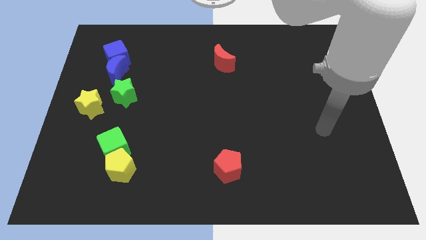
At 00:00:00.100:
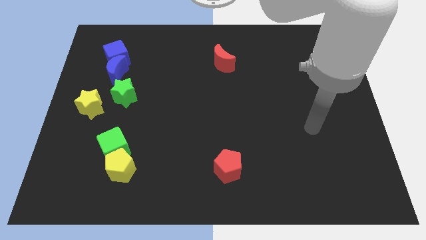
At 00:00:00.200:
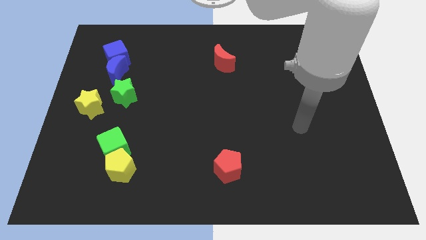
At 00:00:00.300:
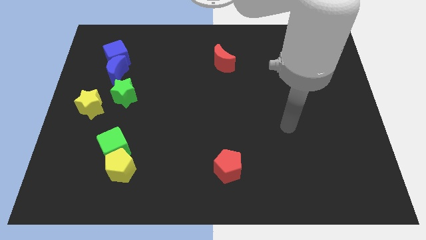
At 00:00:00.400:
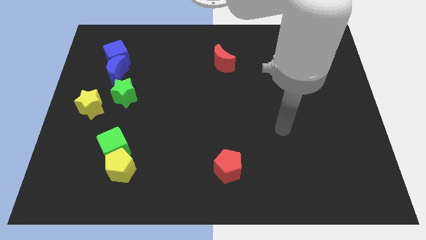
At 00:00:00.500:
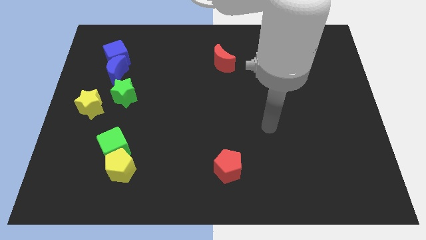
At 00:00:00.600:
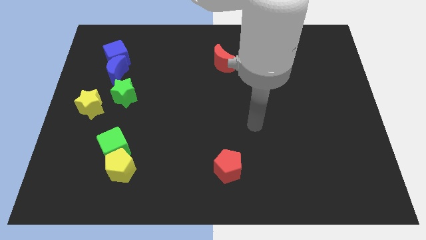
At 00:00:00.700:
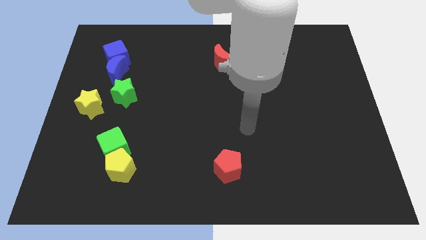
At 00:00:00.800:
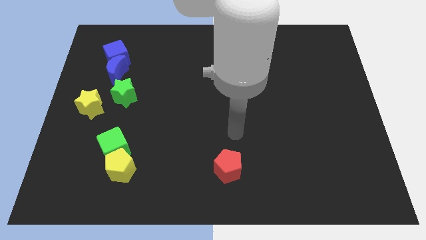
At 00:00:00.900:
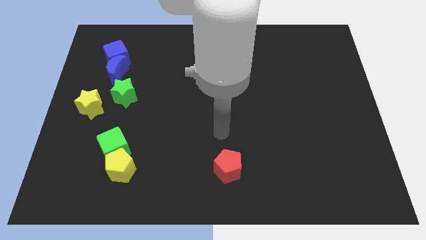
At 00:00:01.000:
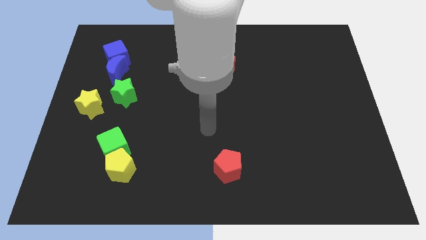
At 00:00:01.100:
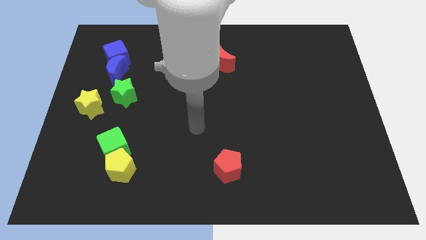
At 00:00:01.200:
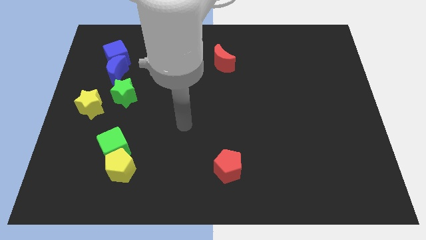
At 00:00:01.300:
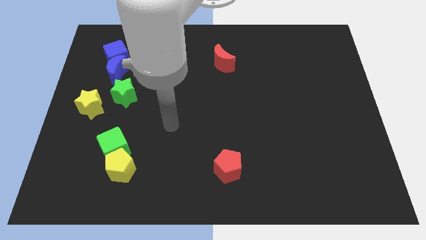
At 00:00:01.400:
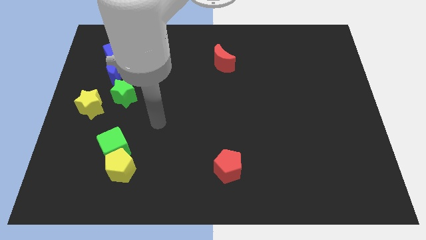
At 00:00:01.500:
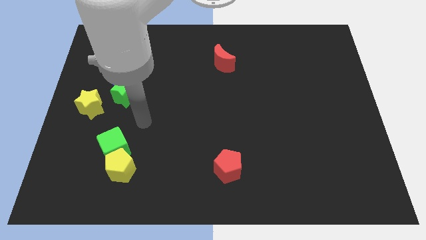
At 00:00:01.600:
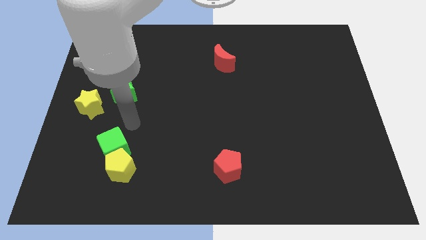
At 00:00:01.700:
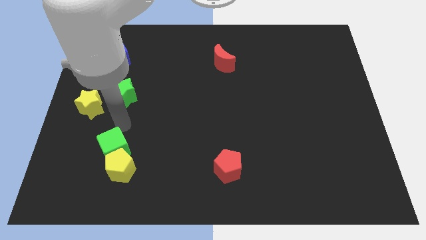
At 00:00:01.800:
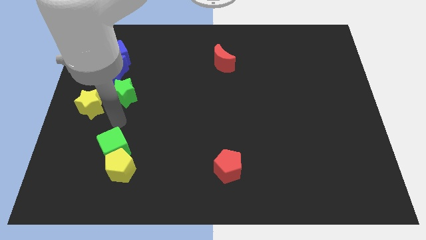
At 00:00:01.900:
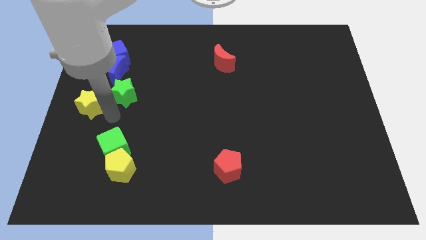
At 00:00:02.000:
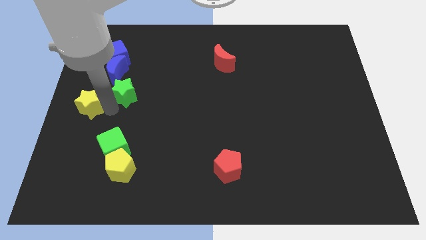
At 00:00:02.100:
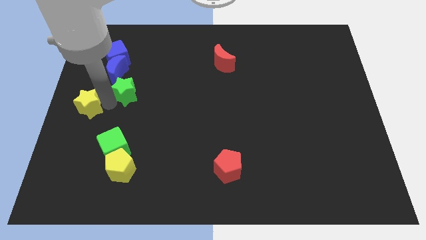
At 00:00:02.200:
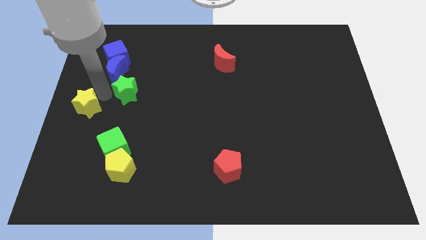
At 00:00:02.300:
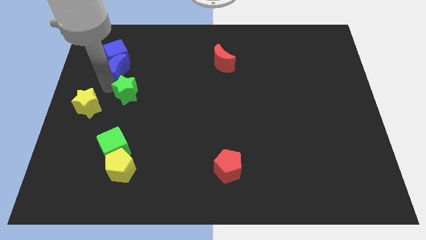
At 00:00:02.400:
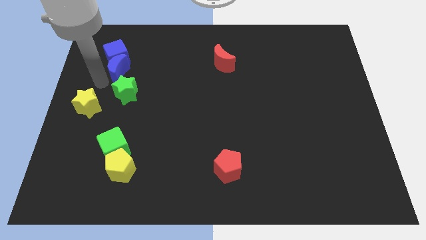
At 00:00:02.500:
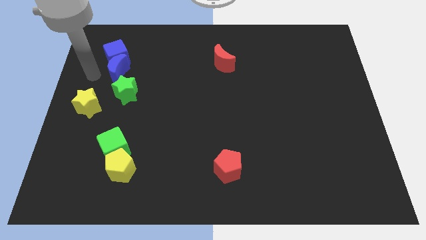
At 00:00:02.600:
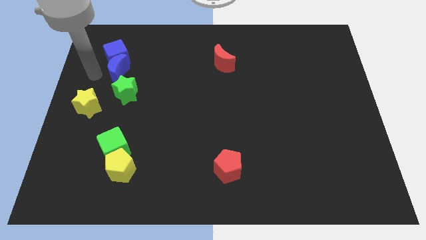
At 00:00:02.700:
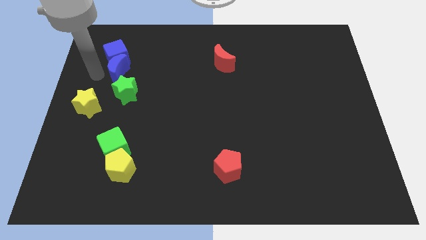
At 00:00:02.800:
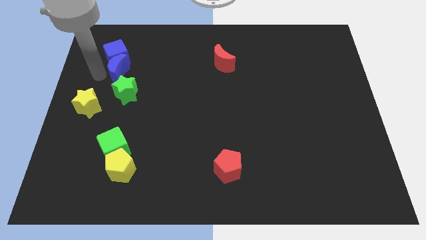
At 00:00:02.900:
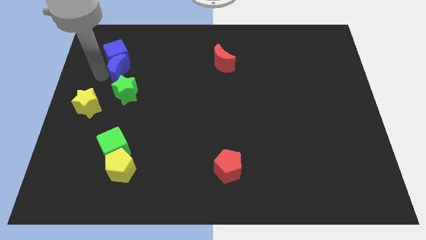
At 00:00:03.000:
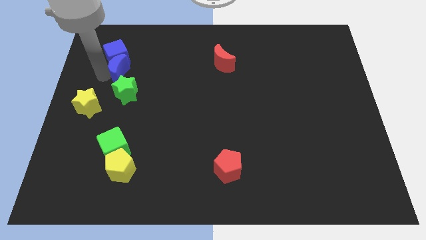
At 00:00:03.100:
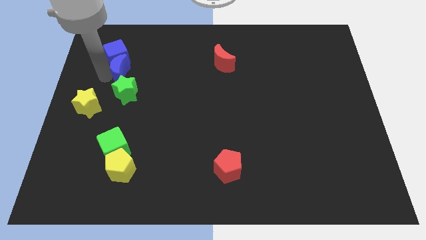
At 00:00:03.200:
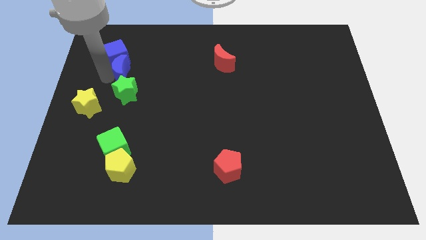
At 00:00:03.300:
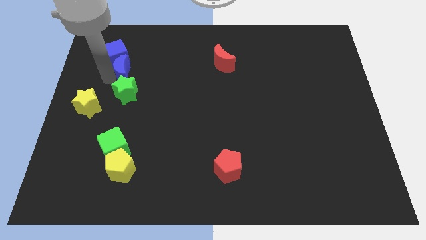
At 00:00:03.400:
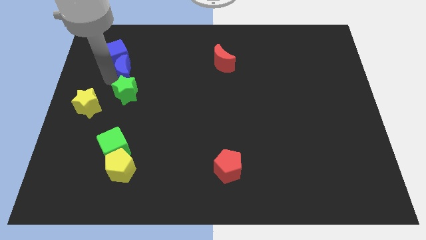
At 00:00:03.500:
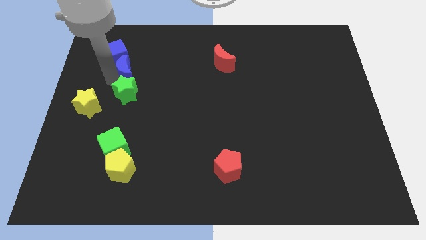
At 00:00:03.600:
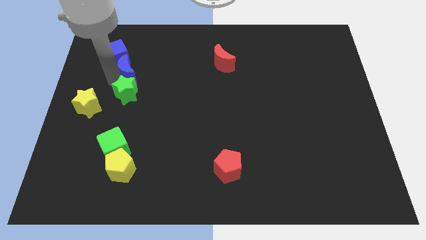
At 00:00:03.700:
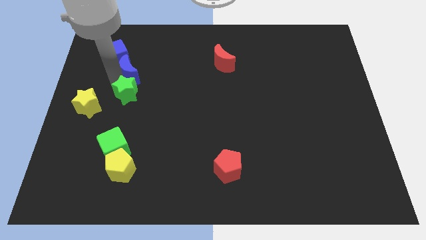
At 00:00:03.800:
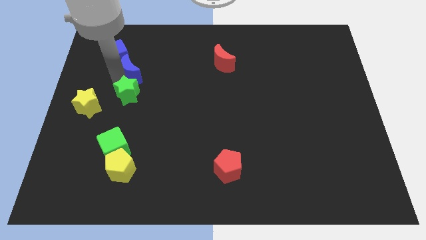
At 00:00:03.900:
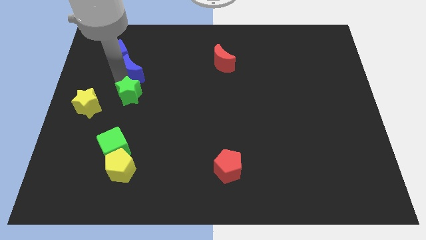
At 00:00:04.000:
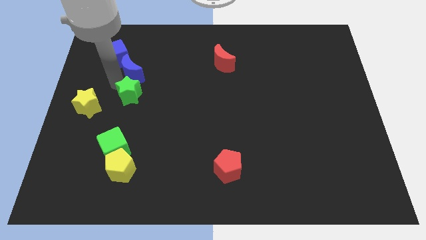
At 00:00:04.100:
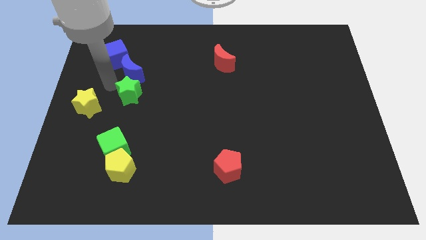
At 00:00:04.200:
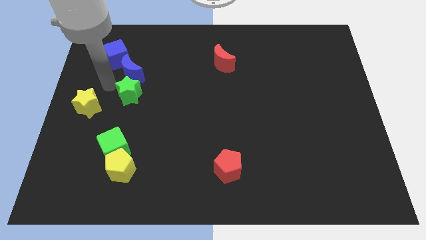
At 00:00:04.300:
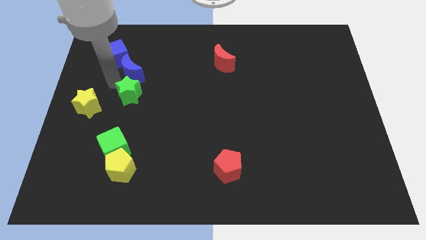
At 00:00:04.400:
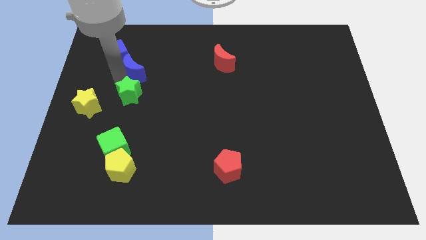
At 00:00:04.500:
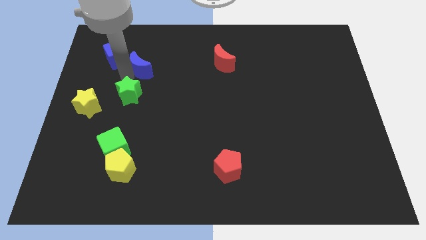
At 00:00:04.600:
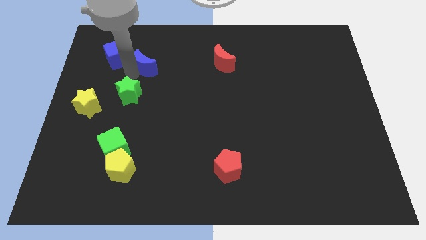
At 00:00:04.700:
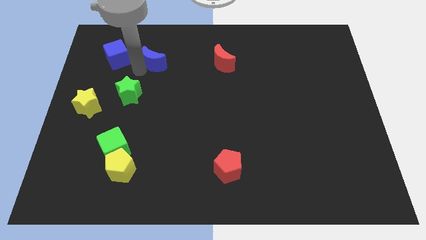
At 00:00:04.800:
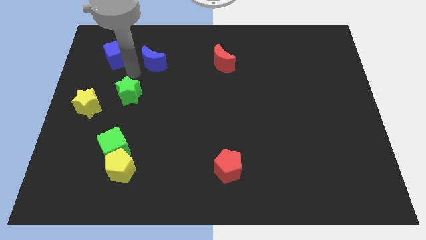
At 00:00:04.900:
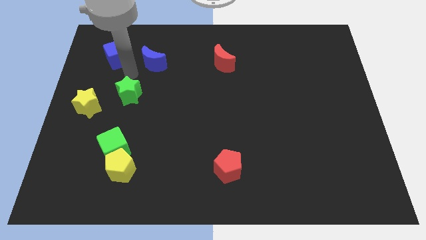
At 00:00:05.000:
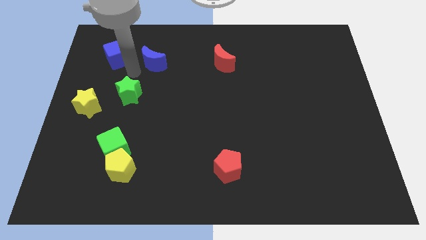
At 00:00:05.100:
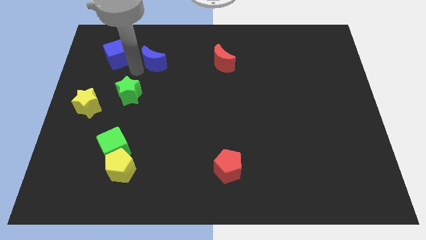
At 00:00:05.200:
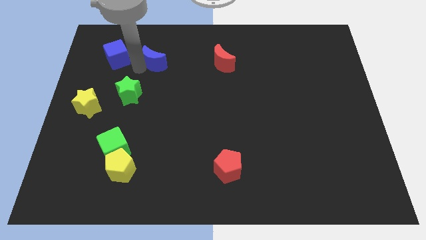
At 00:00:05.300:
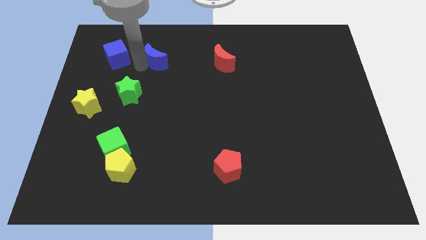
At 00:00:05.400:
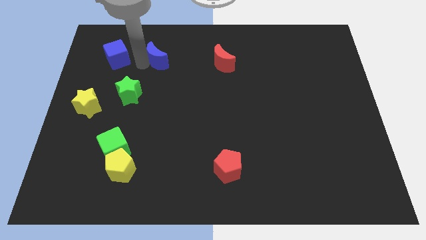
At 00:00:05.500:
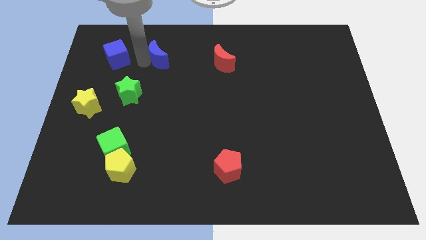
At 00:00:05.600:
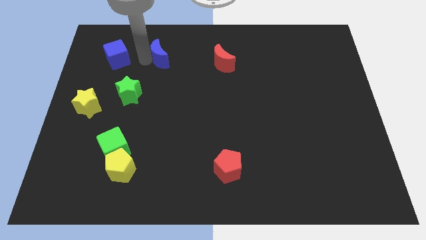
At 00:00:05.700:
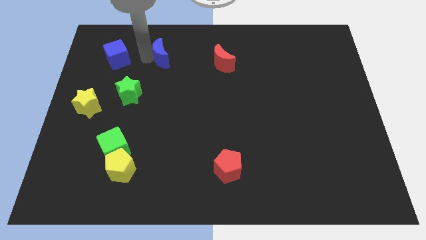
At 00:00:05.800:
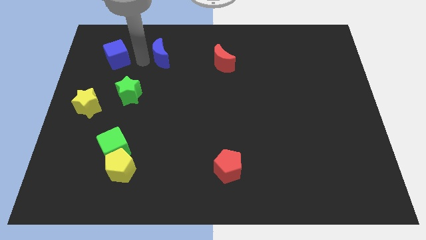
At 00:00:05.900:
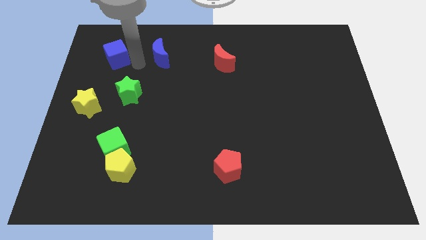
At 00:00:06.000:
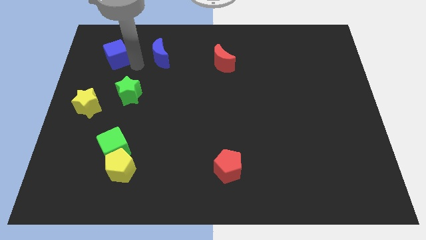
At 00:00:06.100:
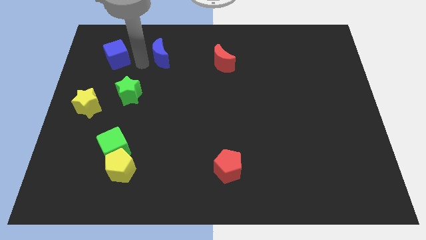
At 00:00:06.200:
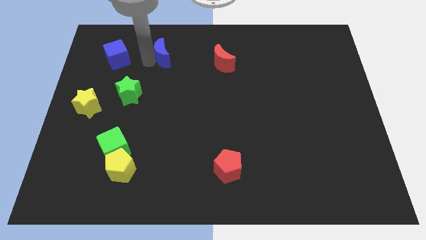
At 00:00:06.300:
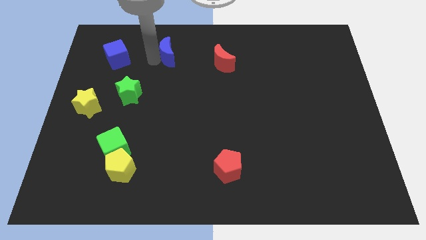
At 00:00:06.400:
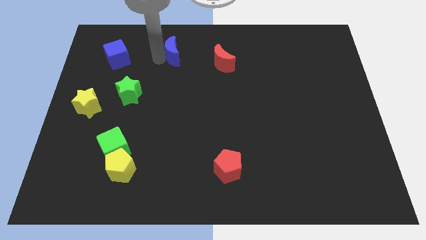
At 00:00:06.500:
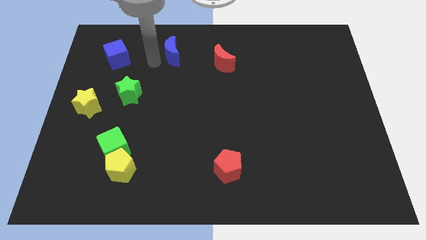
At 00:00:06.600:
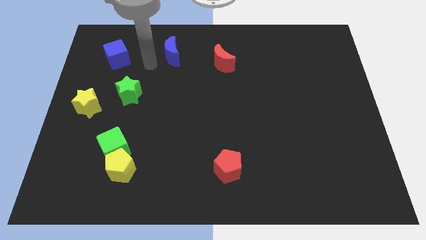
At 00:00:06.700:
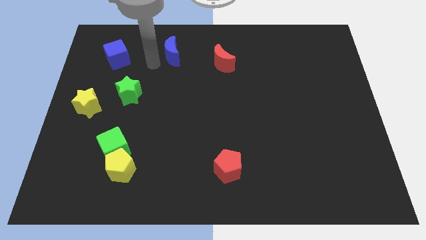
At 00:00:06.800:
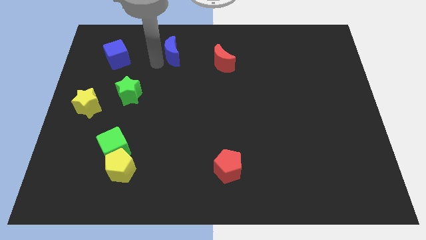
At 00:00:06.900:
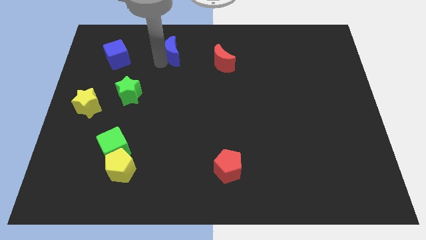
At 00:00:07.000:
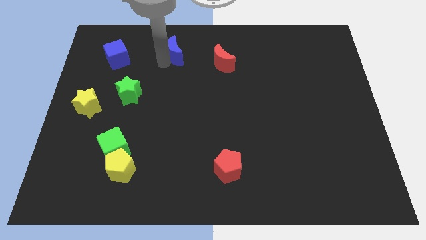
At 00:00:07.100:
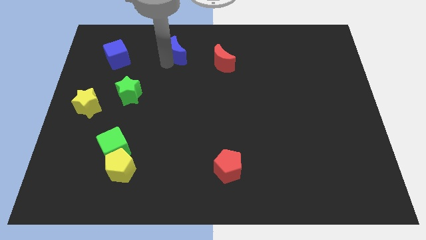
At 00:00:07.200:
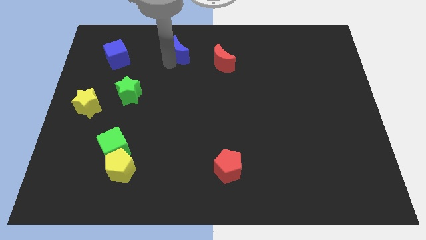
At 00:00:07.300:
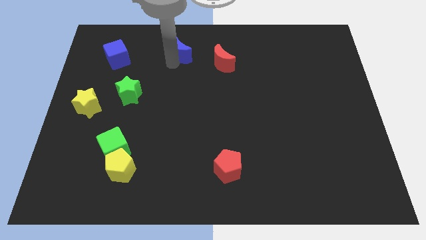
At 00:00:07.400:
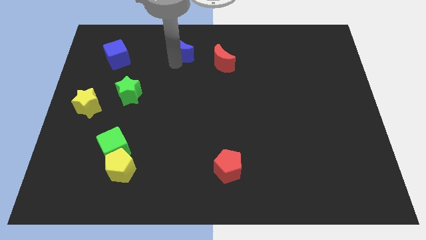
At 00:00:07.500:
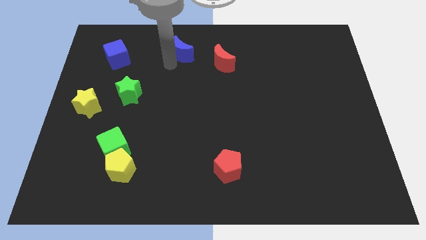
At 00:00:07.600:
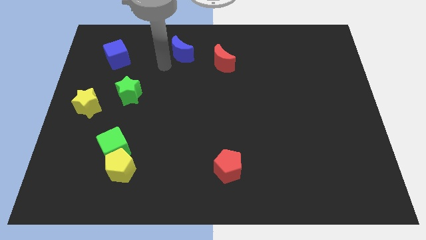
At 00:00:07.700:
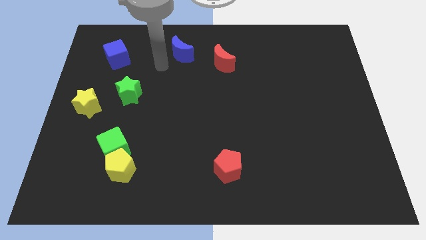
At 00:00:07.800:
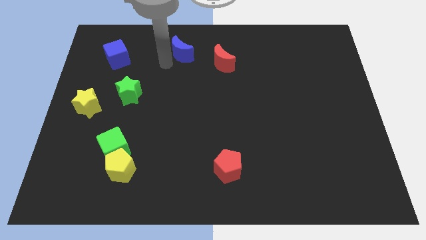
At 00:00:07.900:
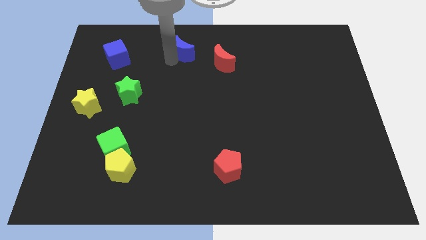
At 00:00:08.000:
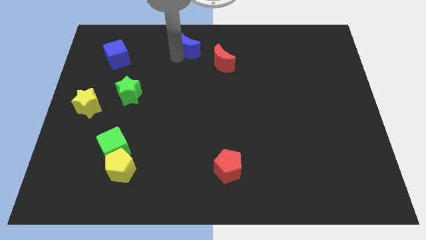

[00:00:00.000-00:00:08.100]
slide the blue moon to the towards your base
